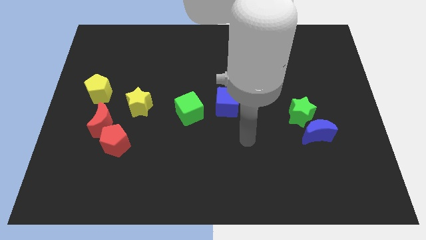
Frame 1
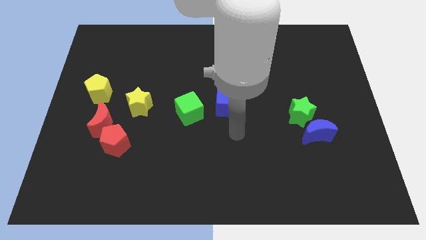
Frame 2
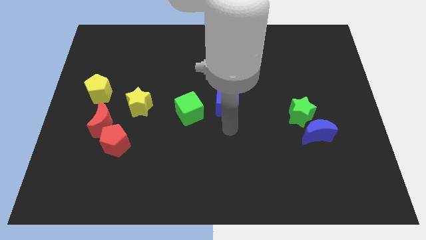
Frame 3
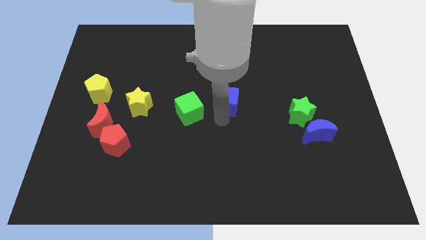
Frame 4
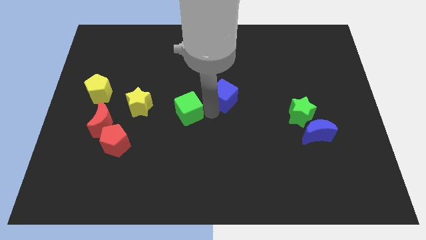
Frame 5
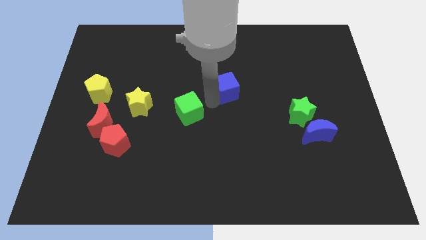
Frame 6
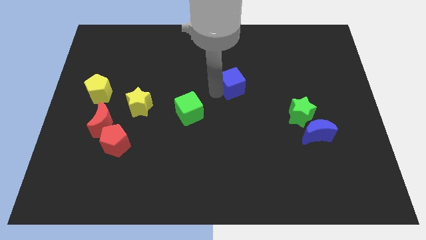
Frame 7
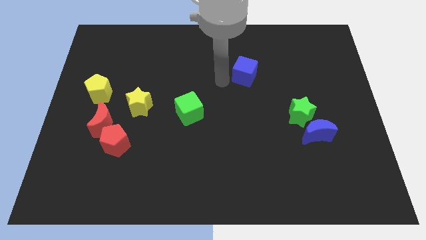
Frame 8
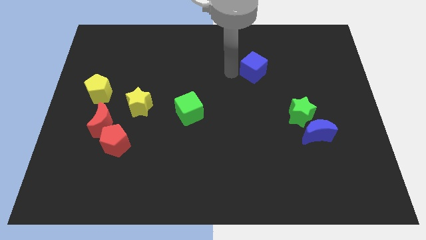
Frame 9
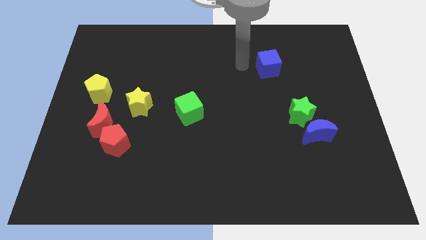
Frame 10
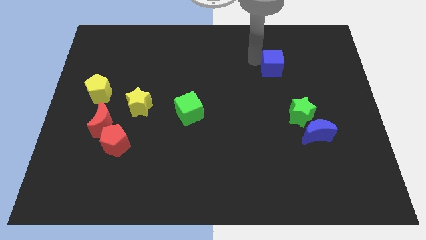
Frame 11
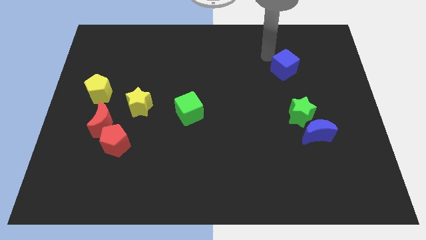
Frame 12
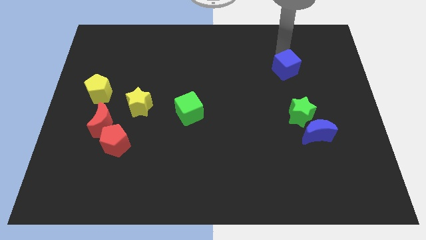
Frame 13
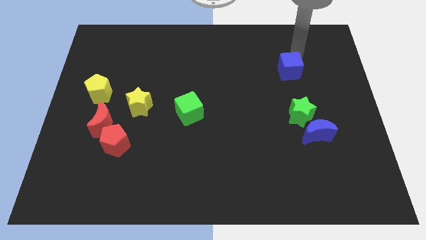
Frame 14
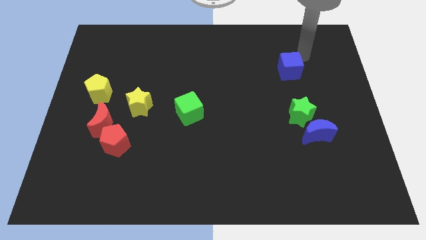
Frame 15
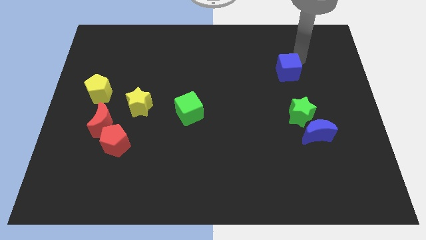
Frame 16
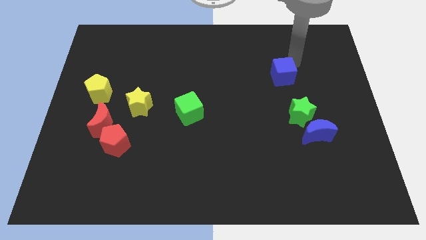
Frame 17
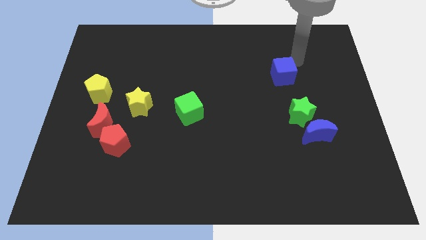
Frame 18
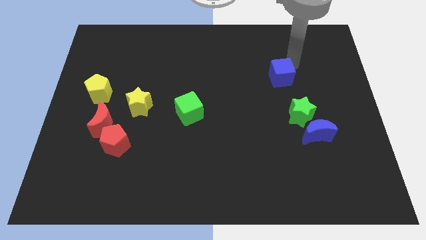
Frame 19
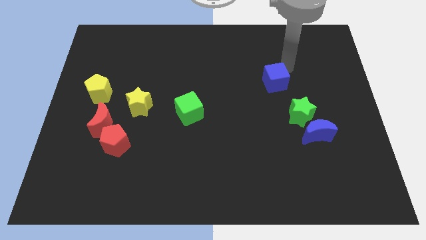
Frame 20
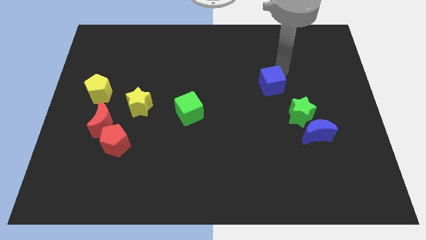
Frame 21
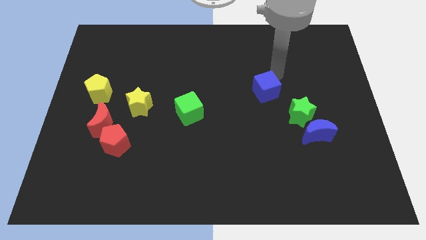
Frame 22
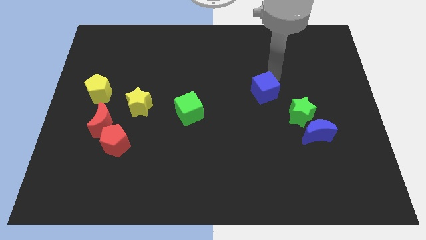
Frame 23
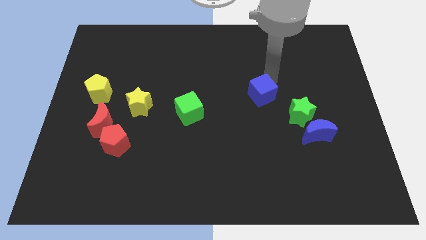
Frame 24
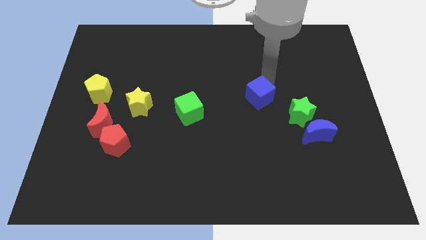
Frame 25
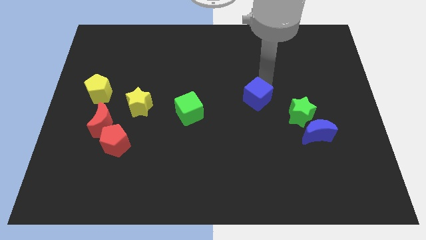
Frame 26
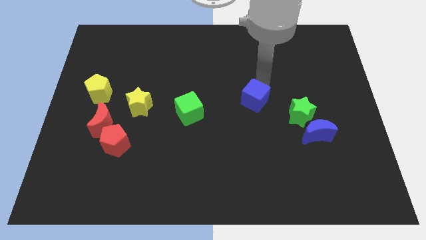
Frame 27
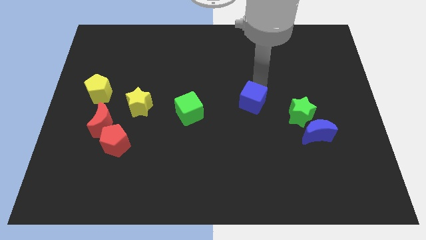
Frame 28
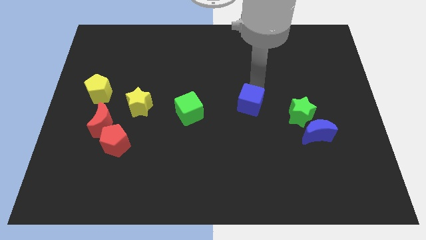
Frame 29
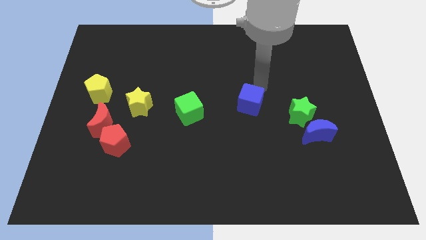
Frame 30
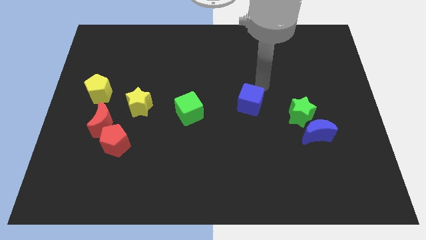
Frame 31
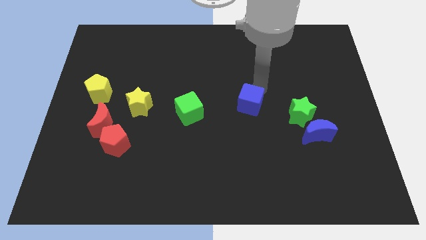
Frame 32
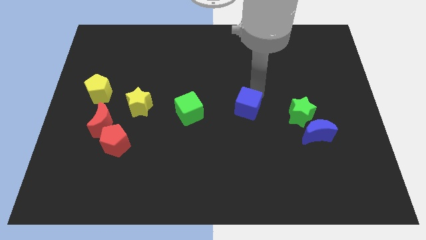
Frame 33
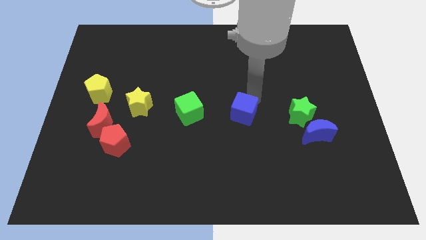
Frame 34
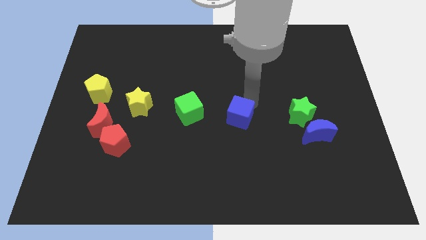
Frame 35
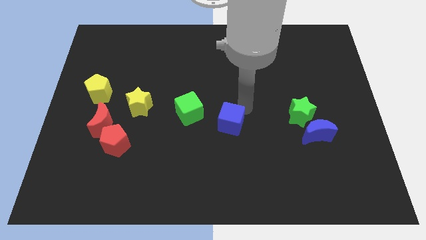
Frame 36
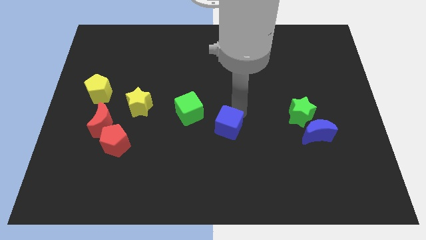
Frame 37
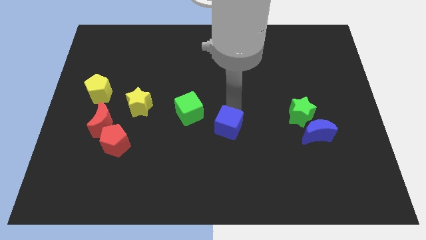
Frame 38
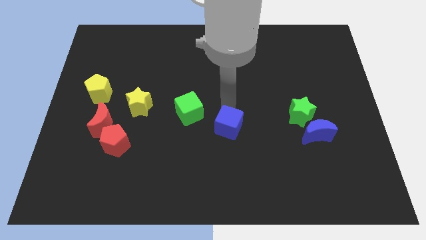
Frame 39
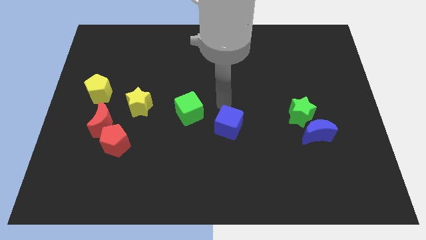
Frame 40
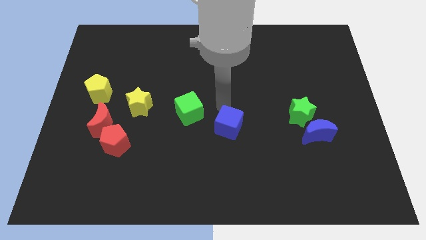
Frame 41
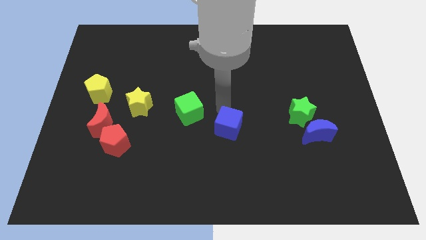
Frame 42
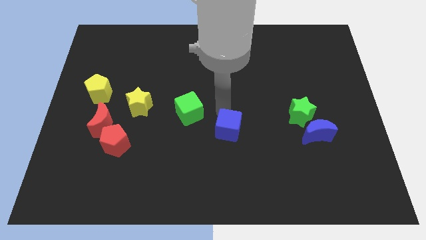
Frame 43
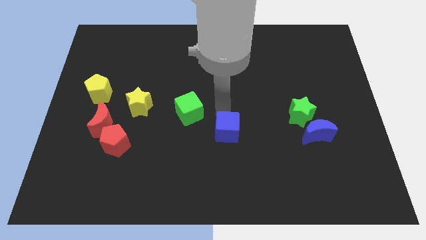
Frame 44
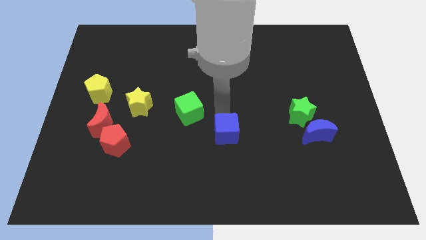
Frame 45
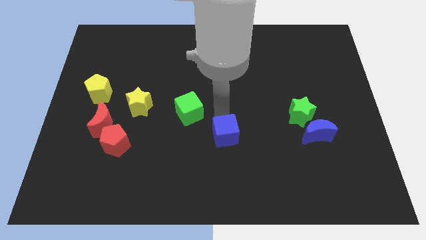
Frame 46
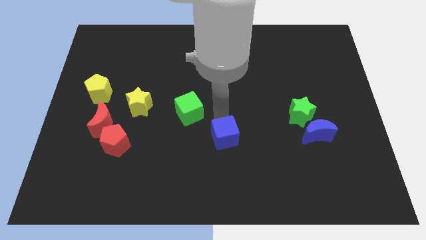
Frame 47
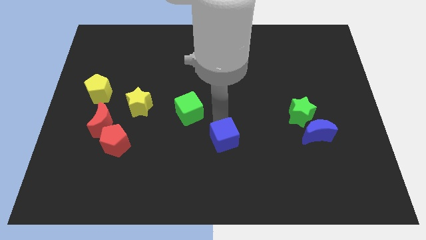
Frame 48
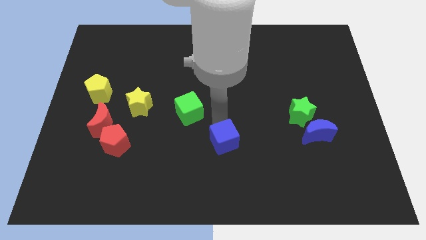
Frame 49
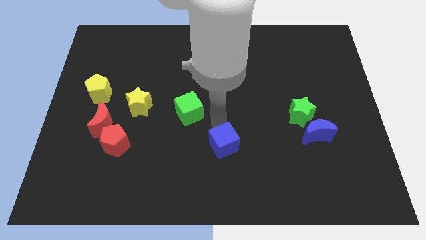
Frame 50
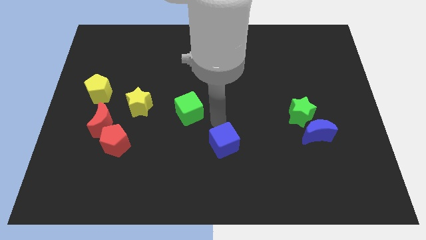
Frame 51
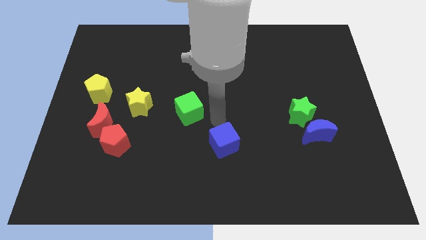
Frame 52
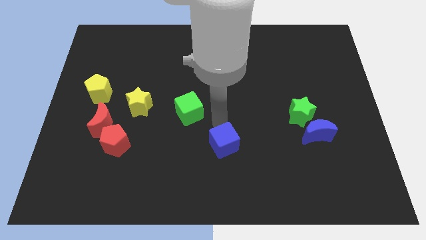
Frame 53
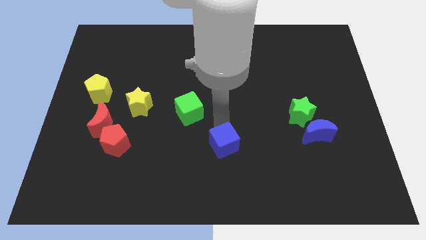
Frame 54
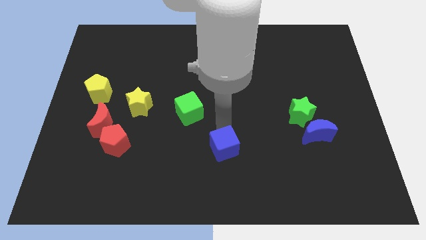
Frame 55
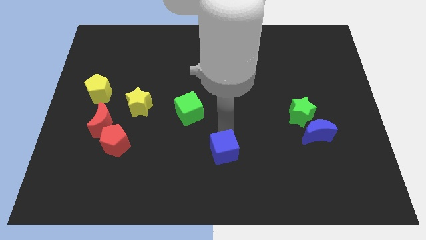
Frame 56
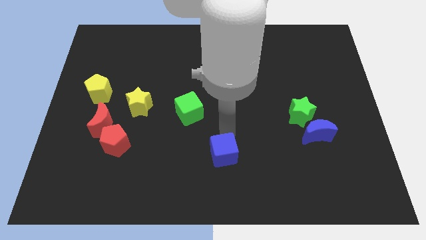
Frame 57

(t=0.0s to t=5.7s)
put the blue cube to the bottom side

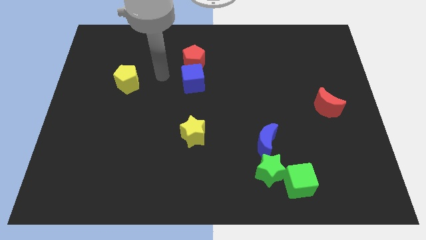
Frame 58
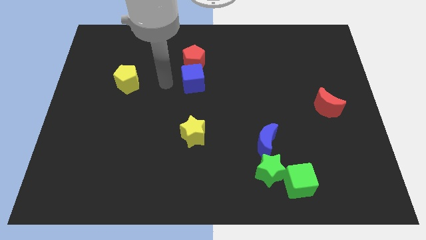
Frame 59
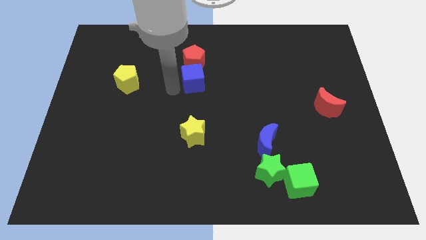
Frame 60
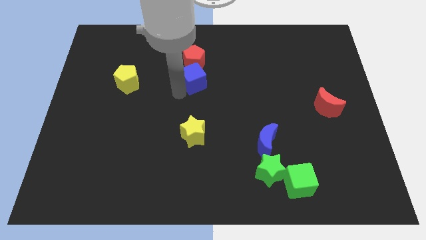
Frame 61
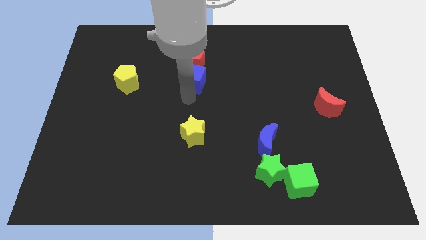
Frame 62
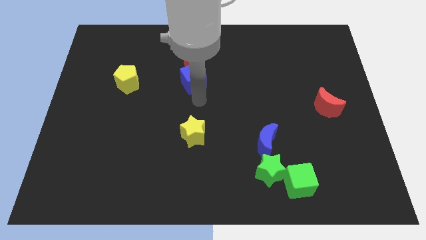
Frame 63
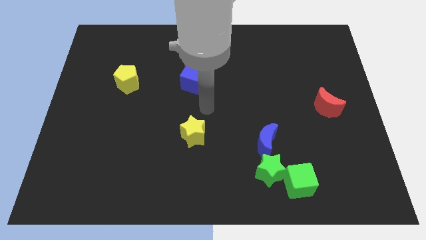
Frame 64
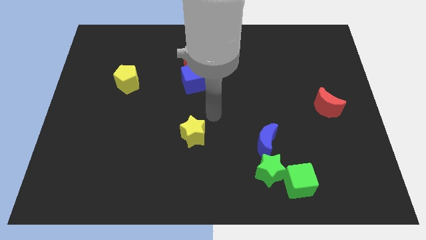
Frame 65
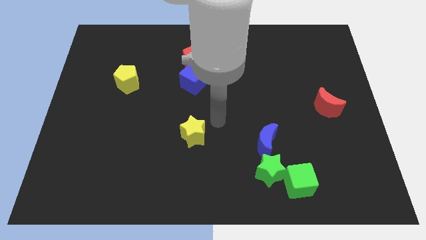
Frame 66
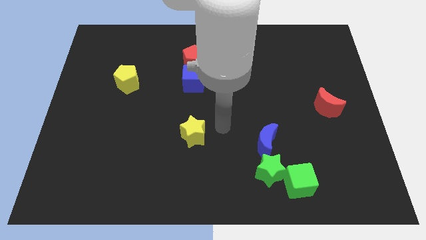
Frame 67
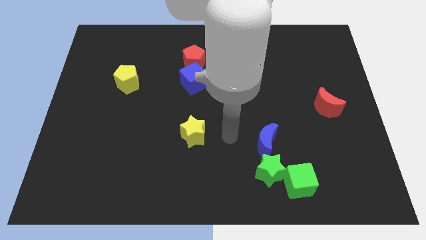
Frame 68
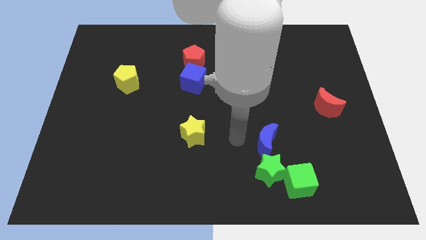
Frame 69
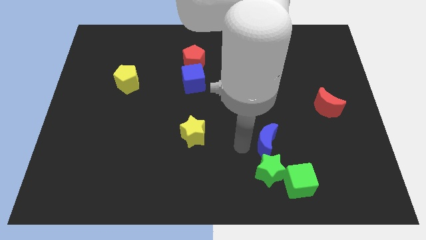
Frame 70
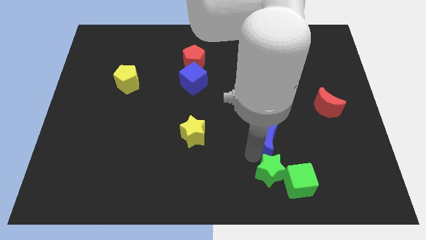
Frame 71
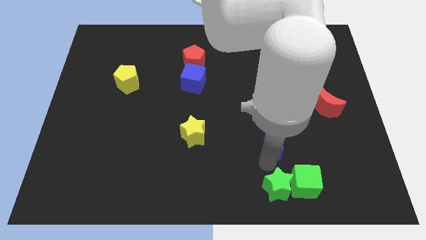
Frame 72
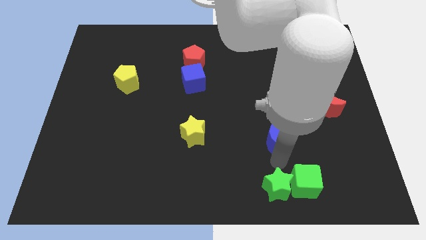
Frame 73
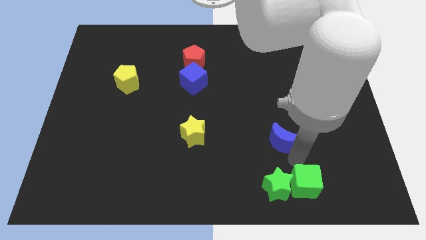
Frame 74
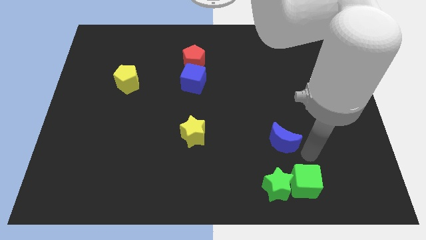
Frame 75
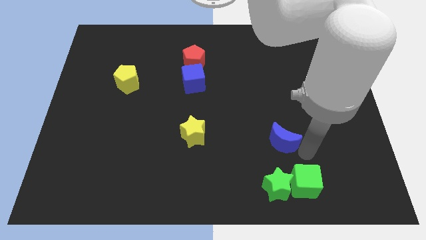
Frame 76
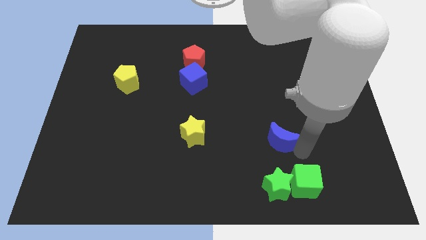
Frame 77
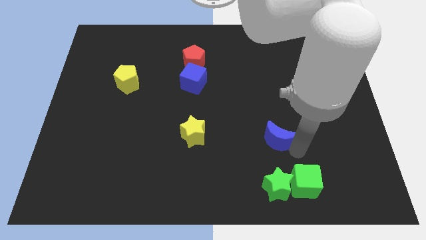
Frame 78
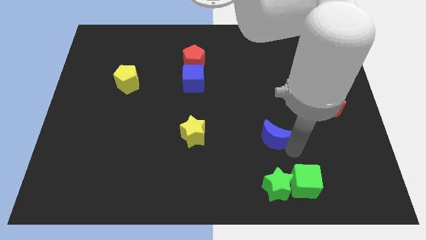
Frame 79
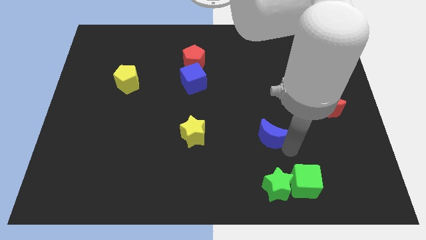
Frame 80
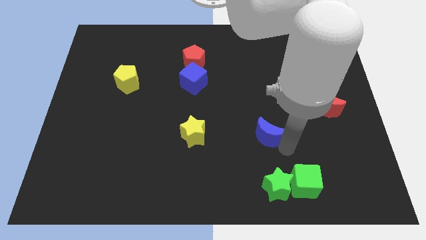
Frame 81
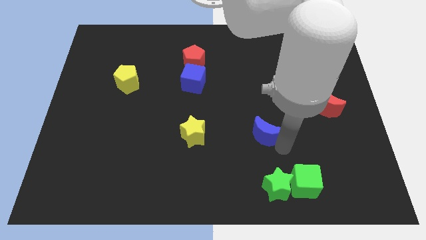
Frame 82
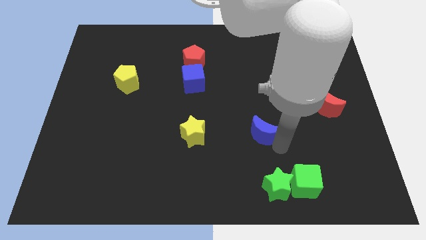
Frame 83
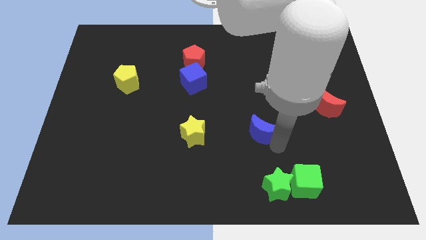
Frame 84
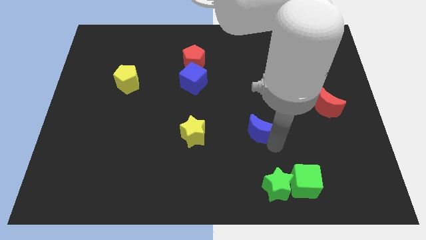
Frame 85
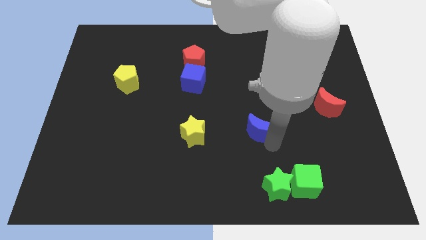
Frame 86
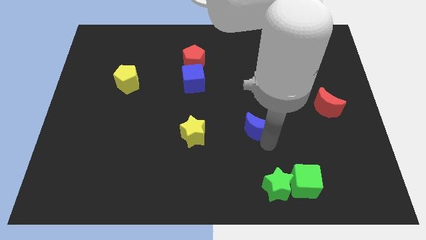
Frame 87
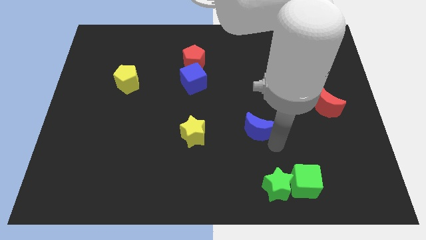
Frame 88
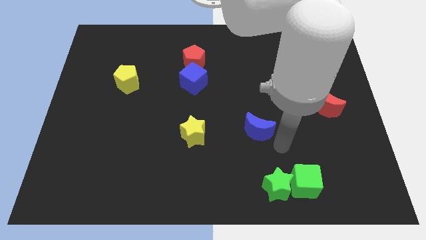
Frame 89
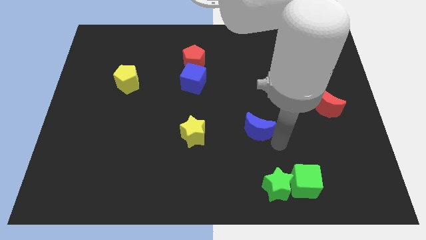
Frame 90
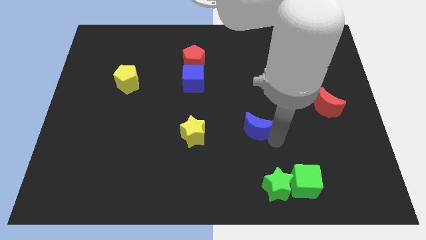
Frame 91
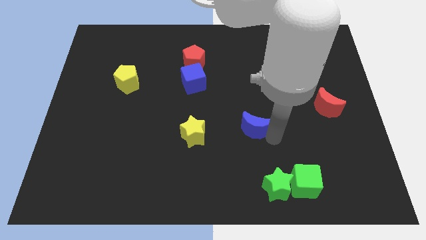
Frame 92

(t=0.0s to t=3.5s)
slide the blue moon to the middle
